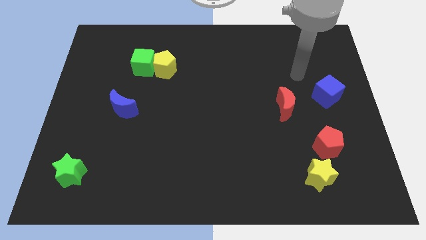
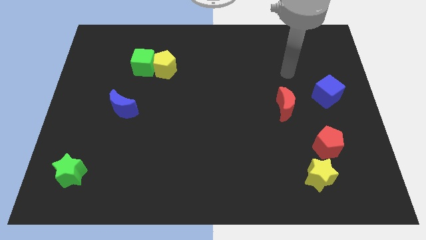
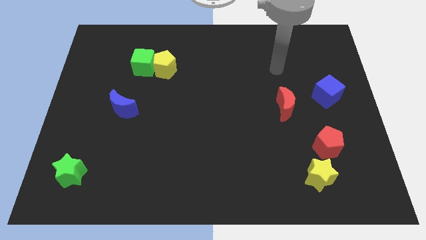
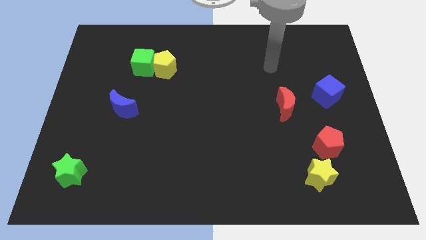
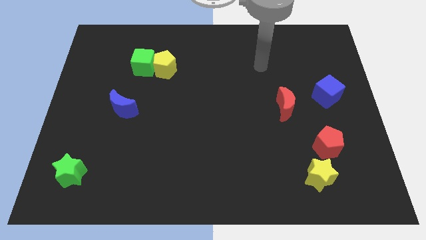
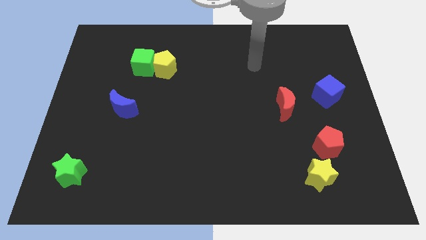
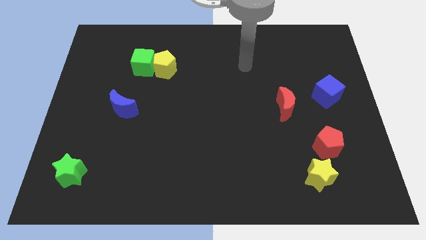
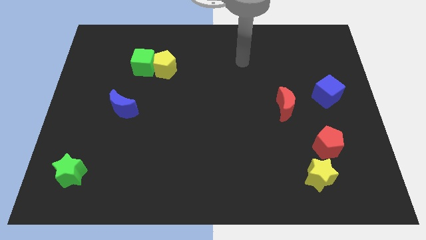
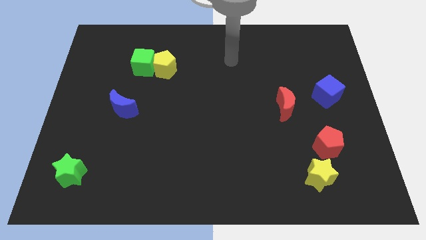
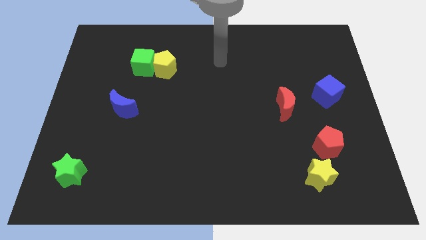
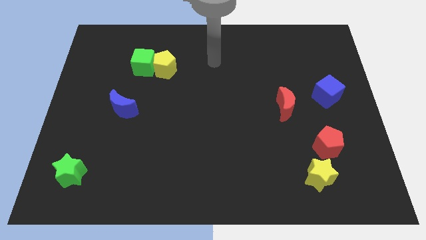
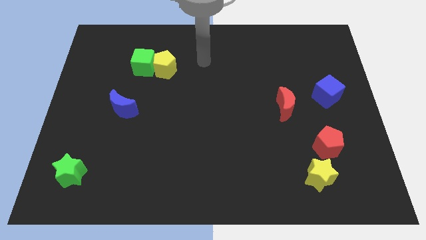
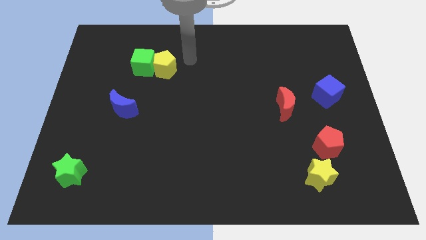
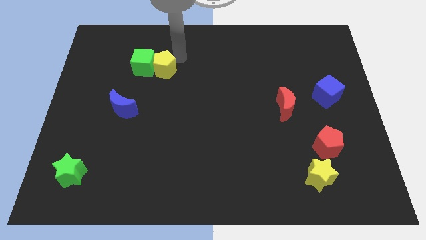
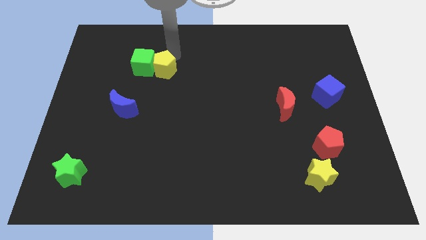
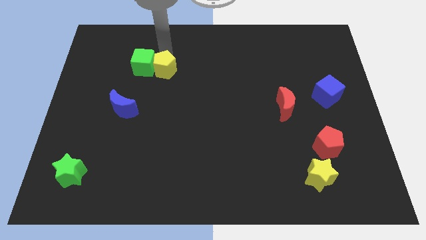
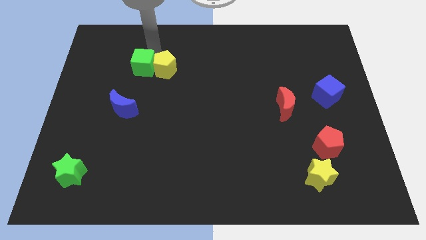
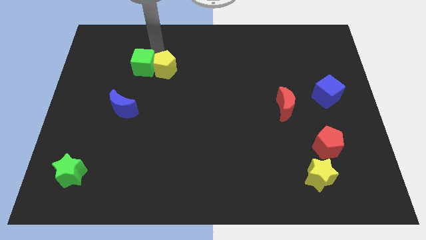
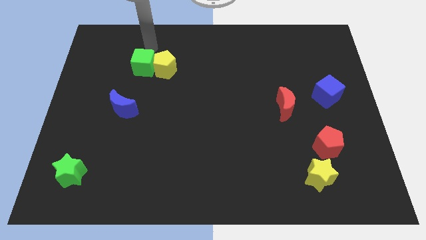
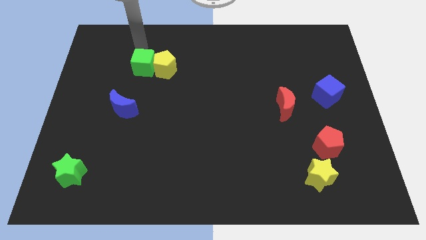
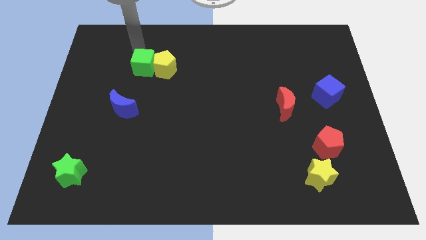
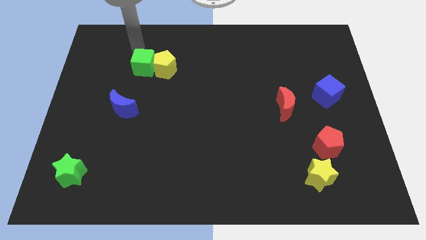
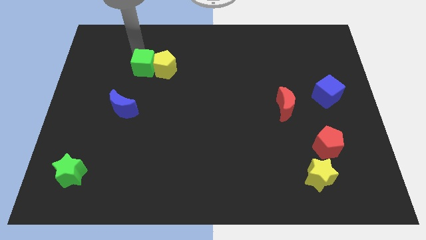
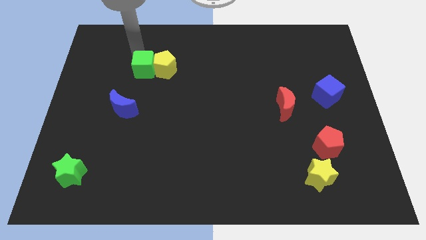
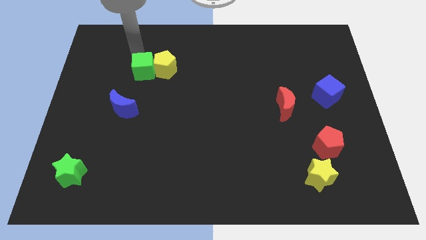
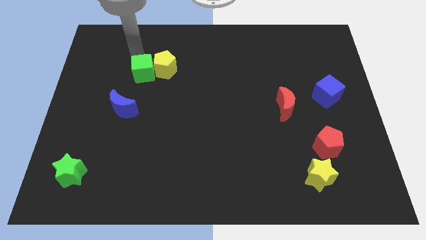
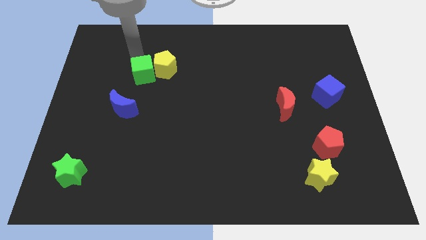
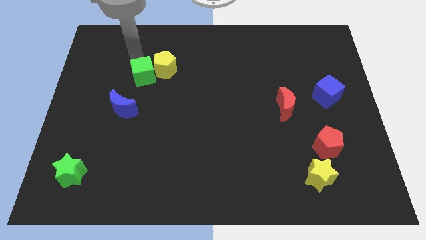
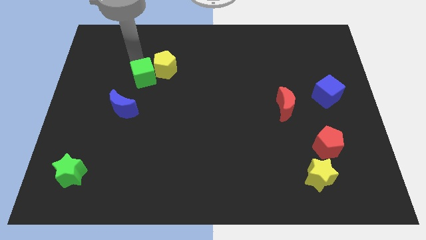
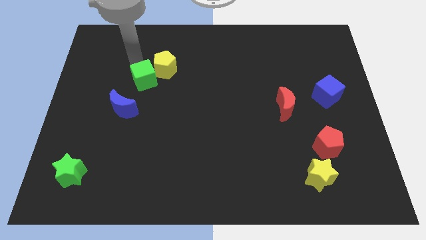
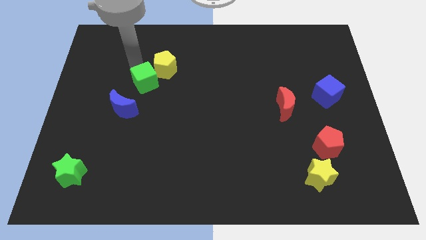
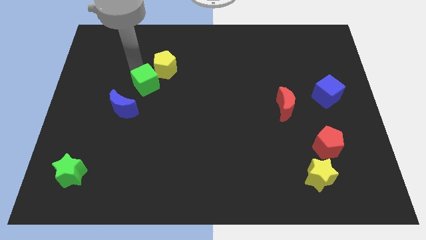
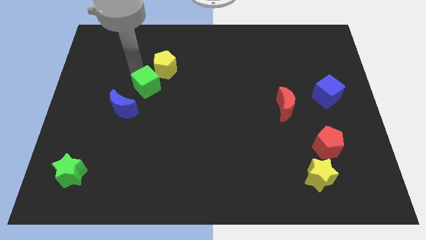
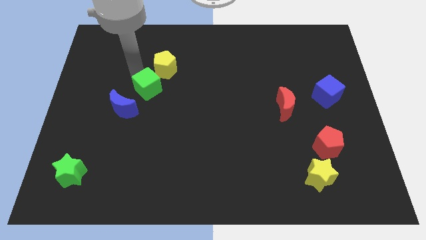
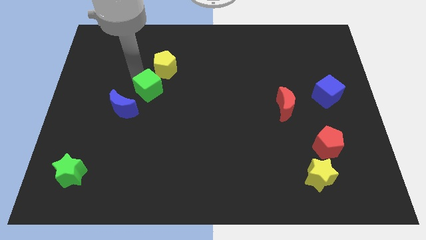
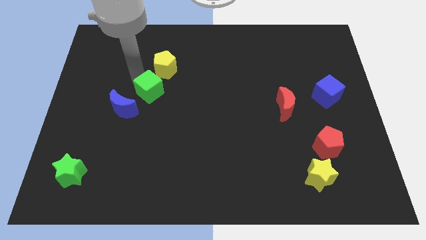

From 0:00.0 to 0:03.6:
slightly push the green cube downwards and then to the right

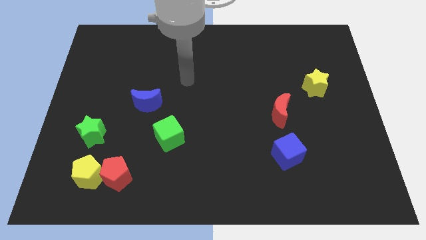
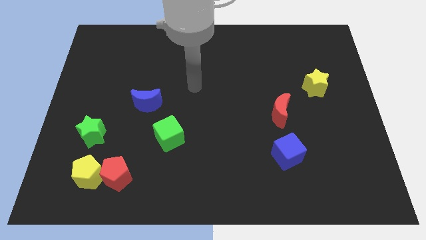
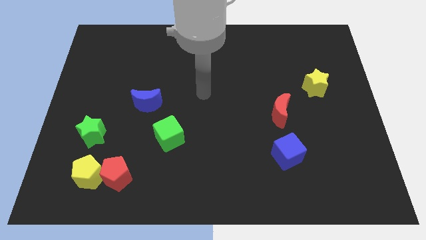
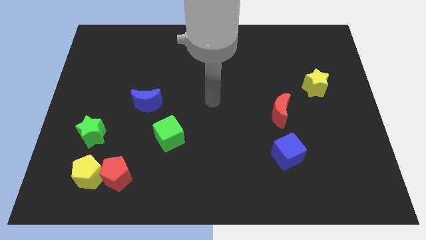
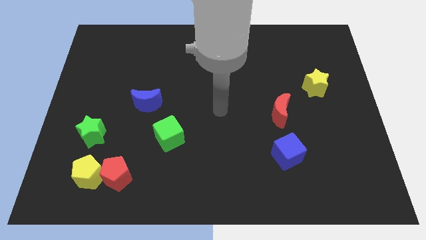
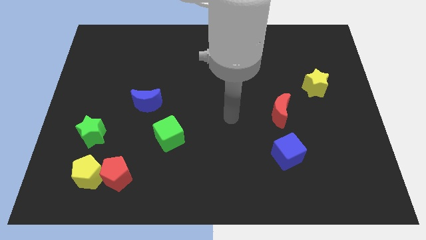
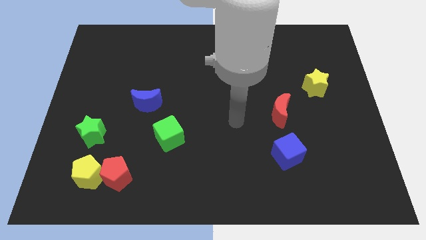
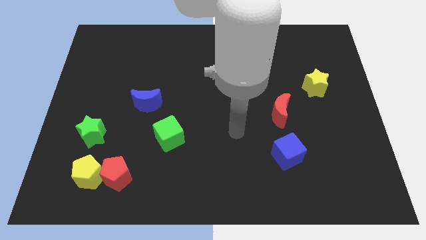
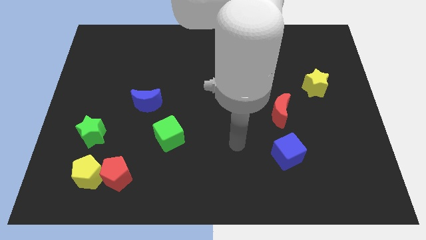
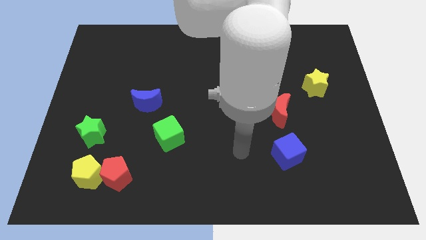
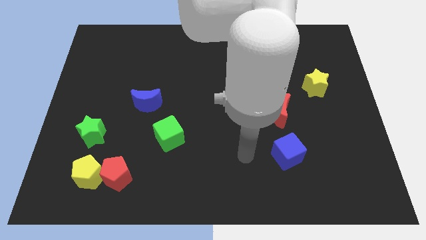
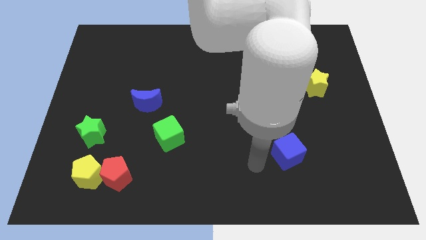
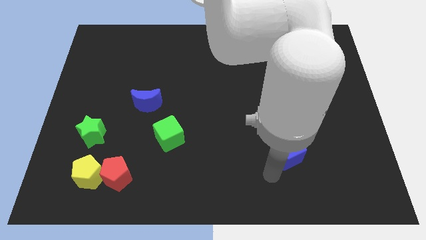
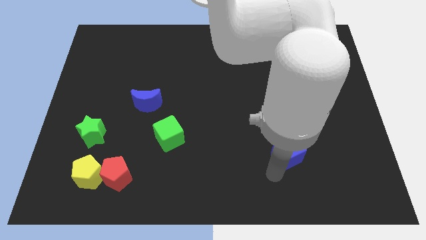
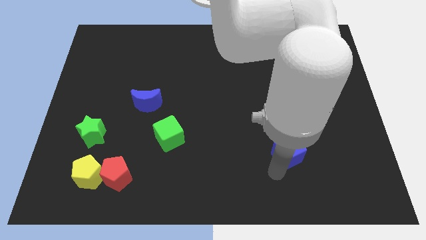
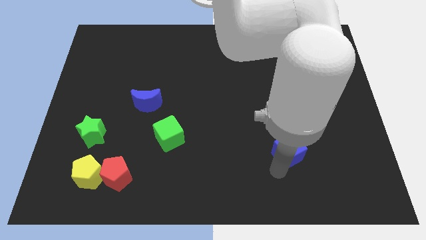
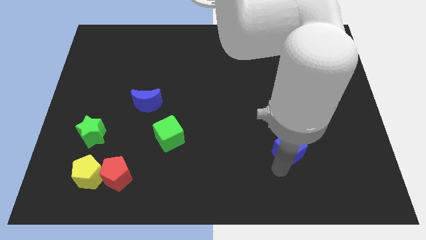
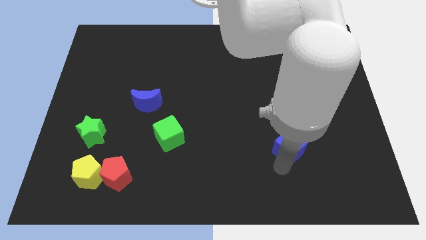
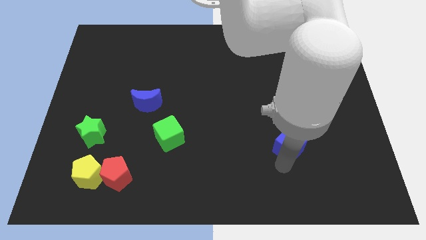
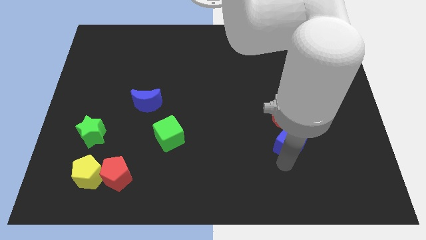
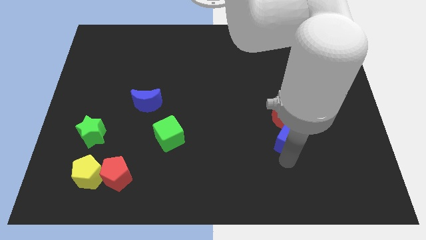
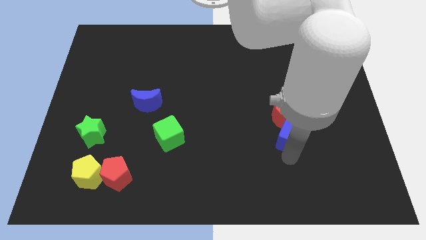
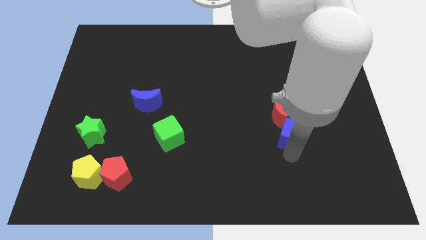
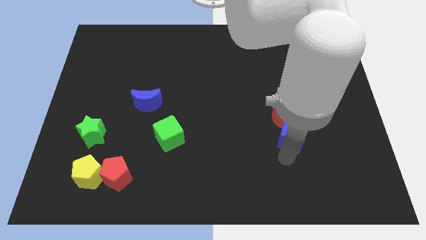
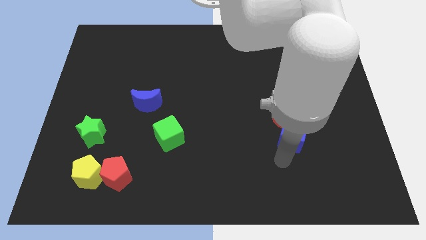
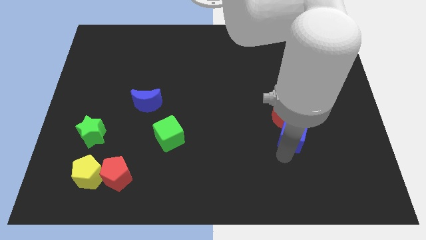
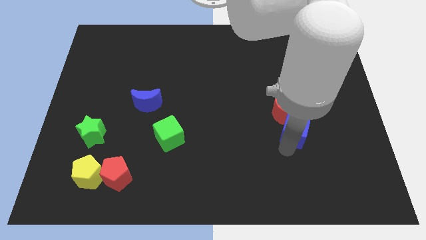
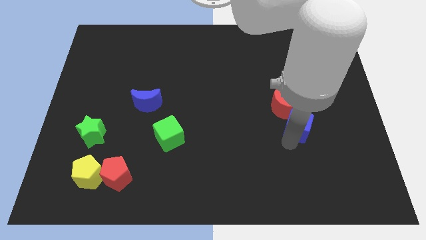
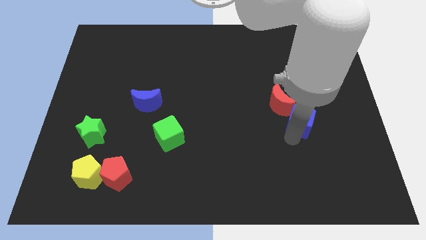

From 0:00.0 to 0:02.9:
slightly push the blue cube up

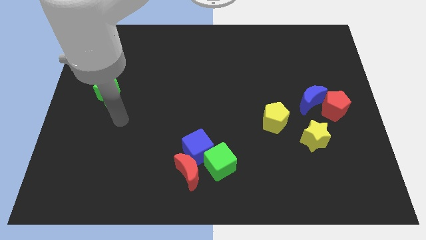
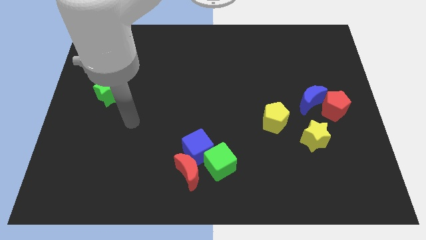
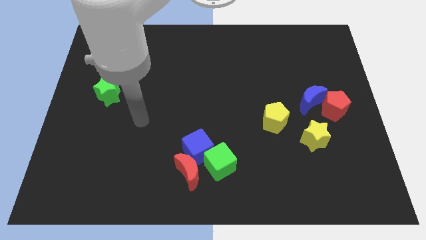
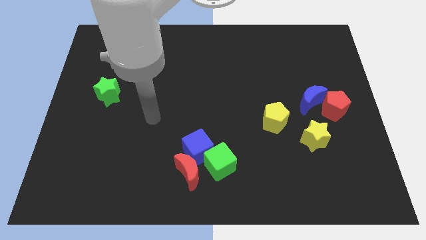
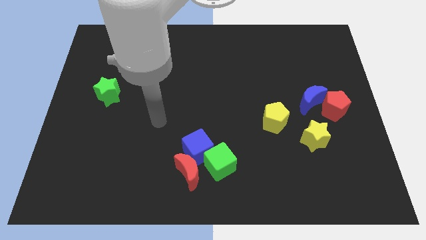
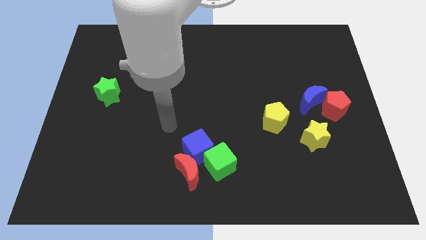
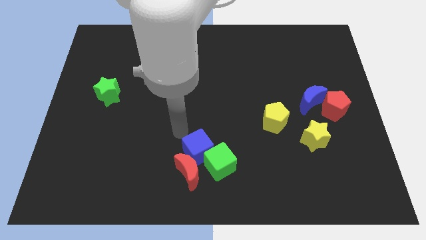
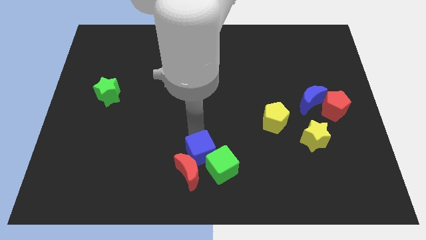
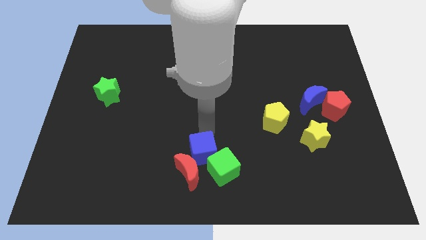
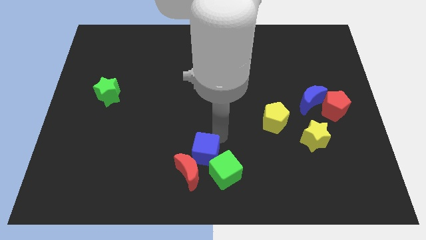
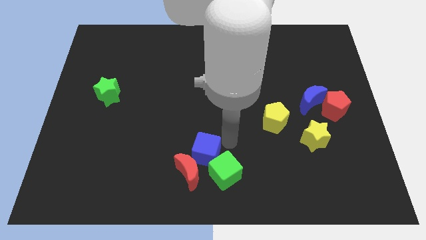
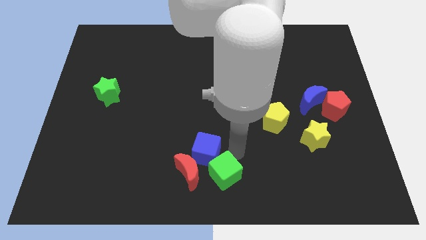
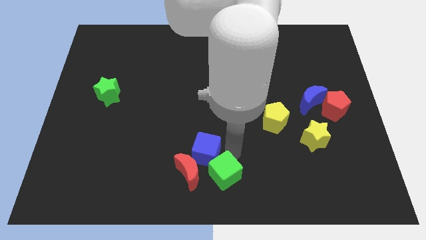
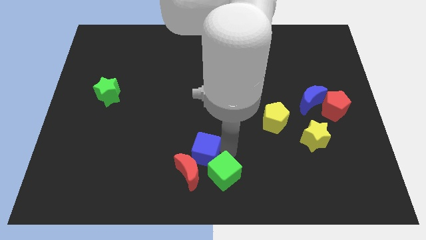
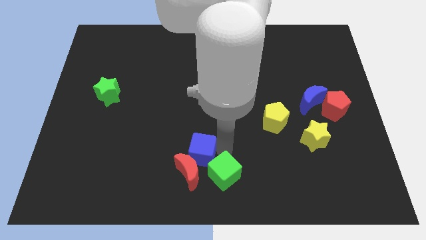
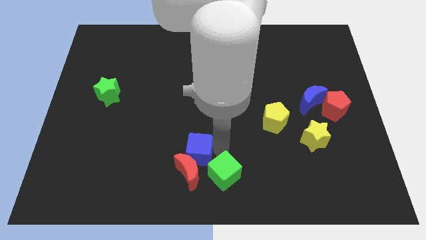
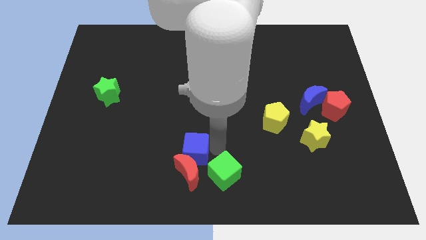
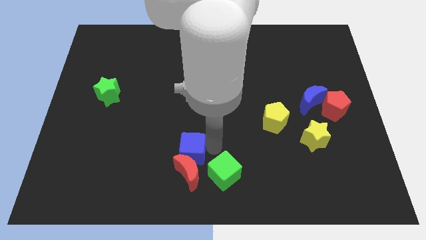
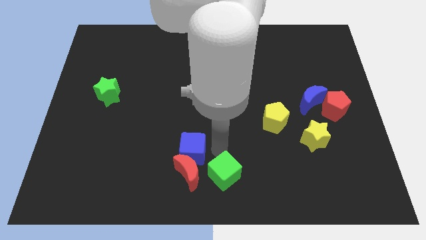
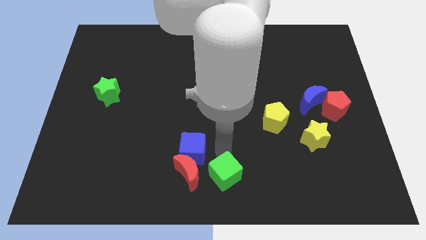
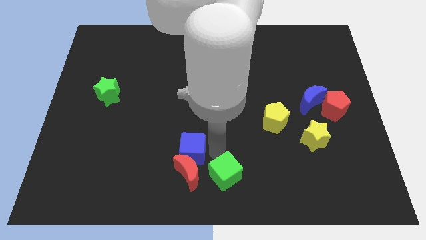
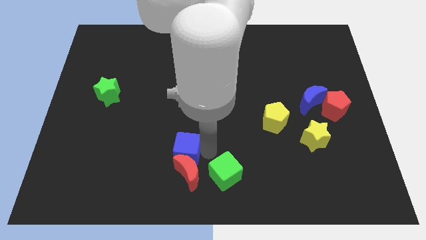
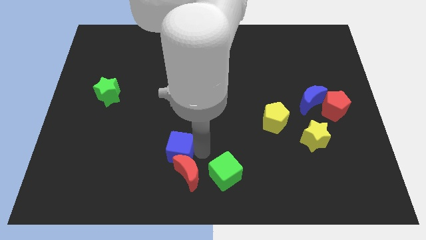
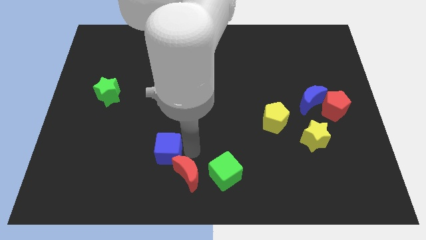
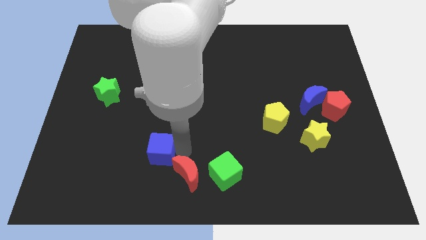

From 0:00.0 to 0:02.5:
slightly slide the blue cube to the left
